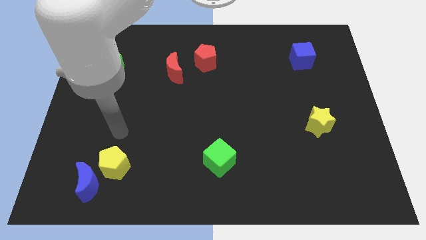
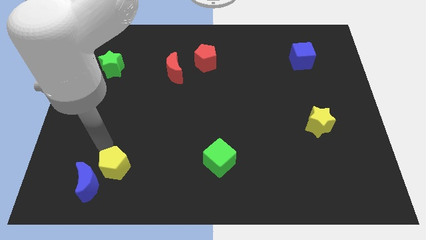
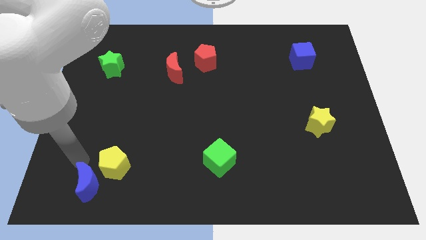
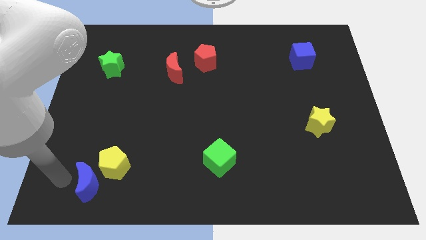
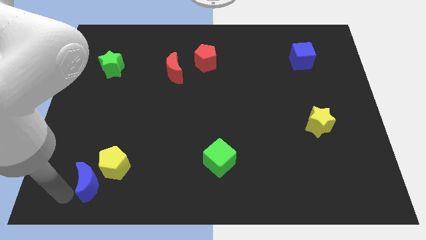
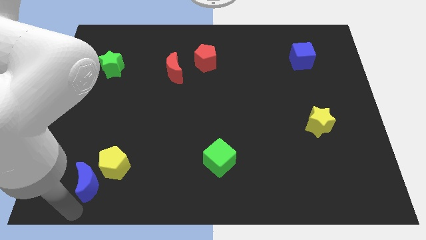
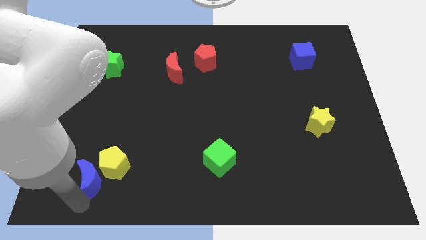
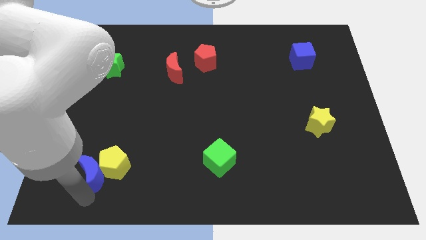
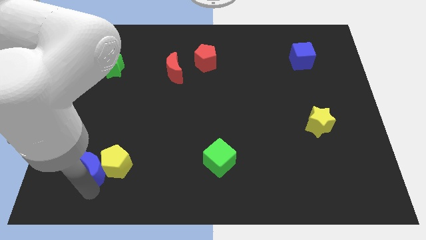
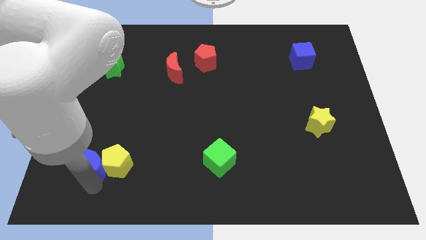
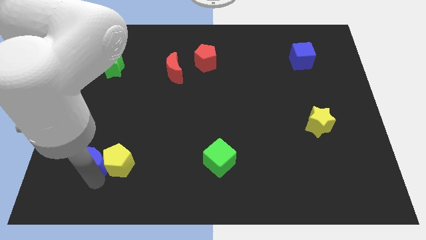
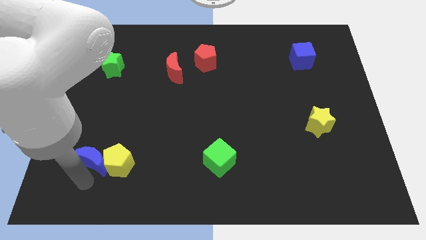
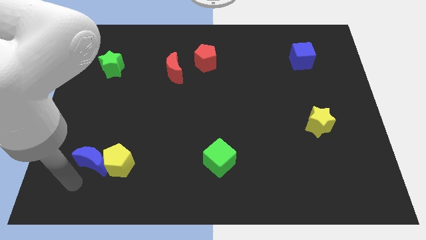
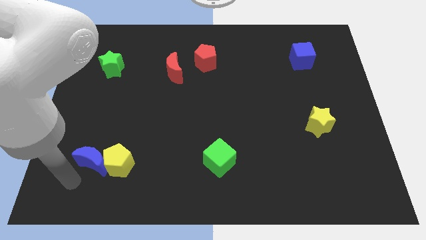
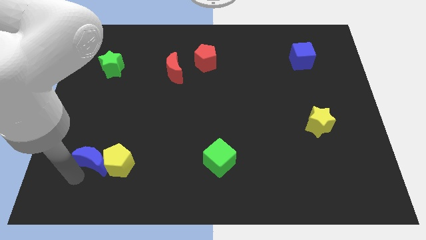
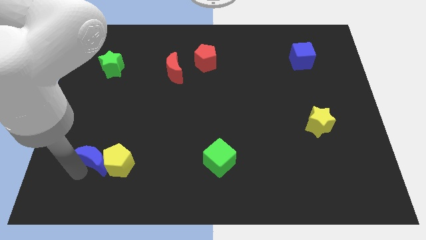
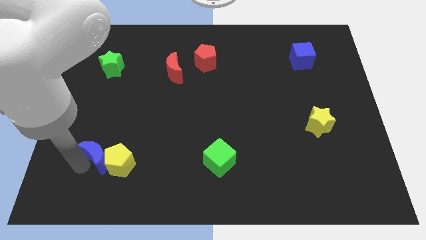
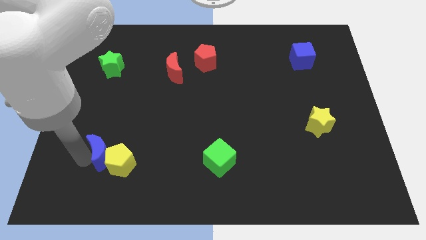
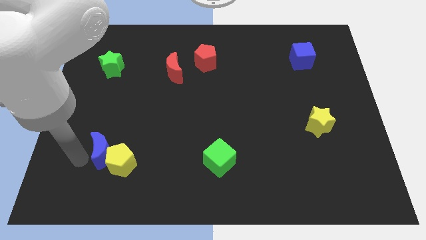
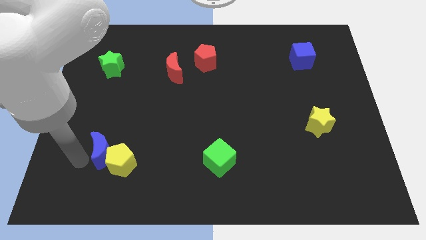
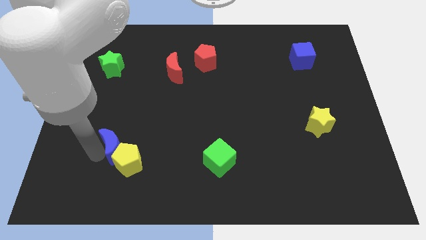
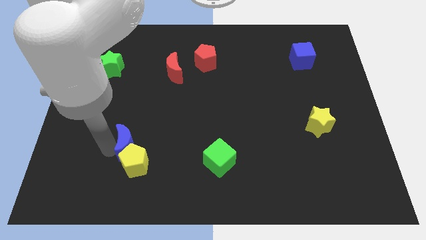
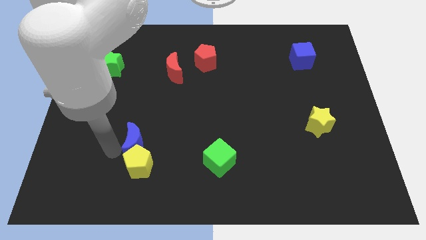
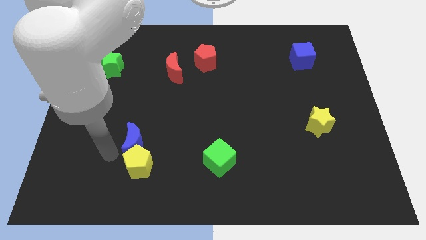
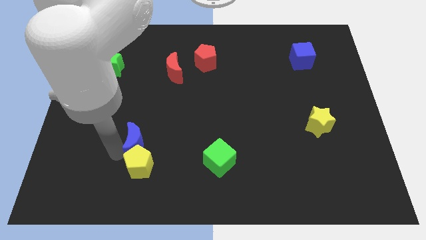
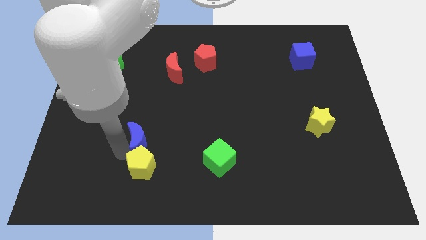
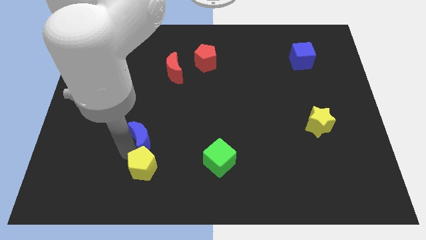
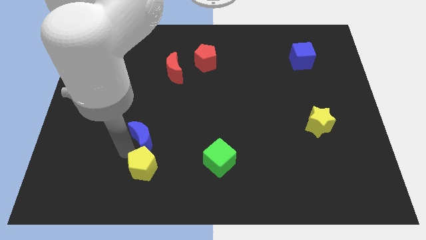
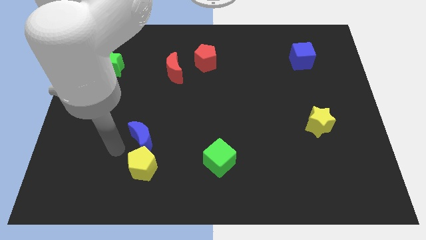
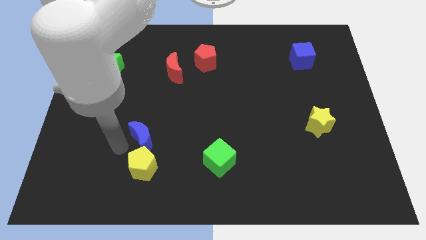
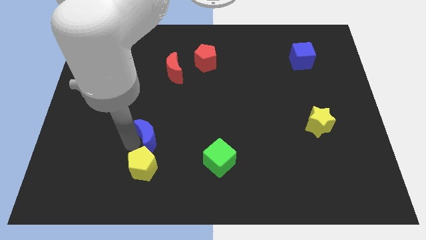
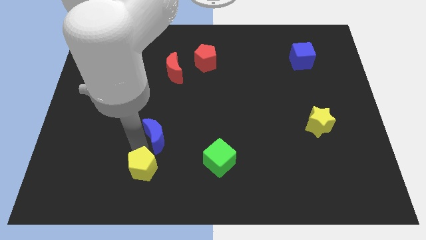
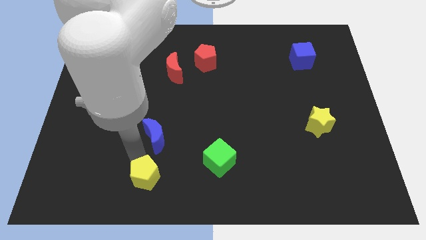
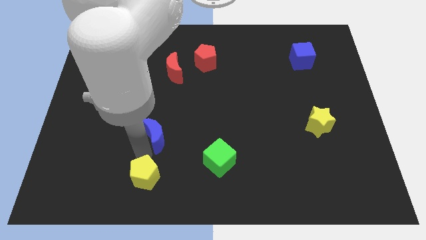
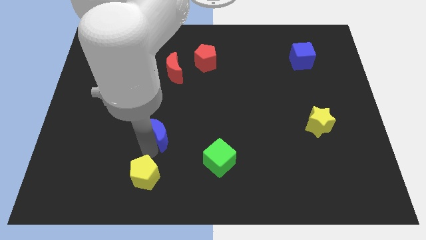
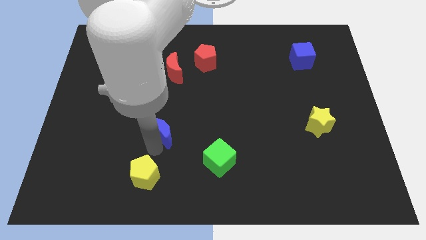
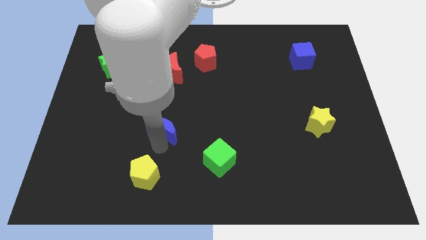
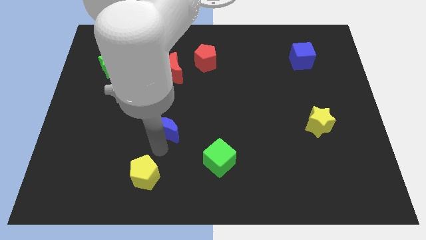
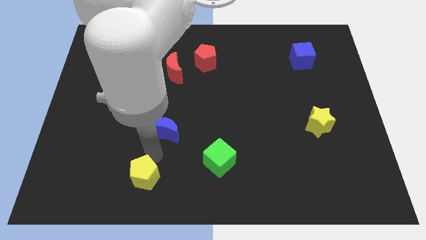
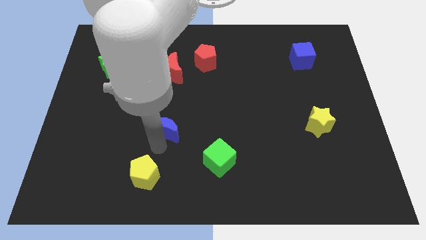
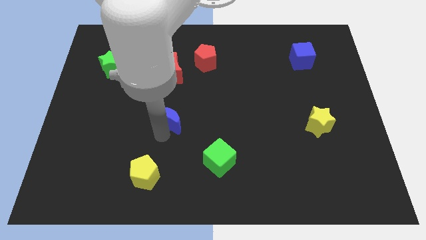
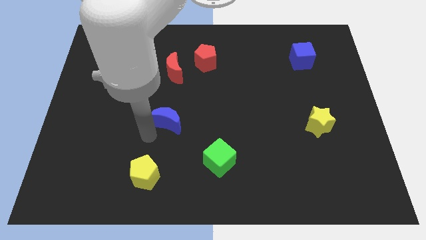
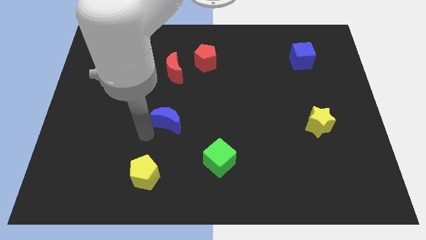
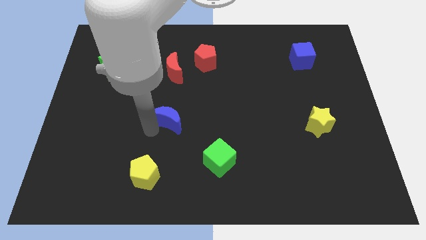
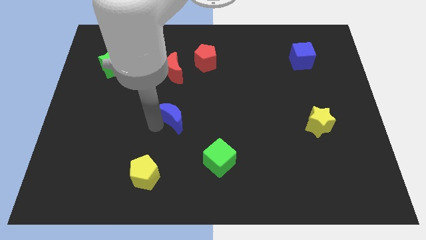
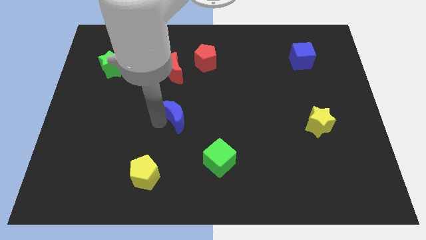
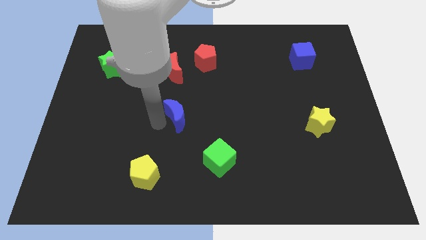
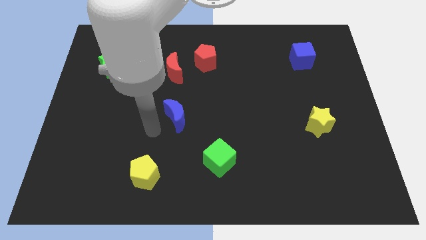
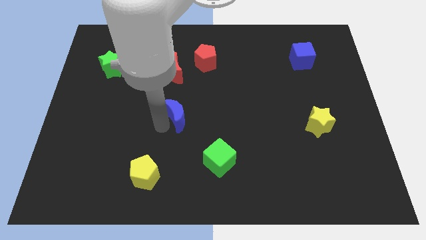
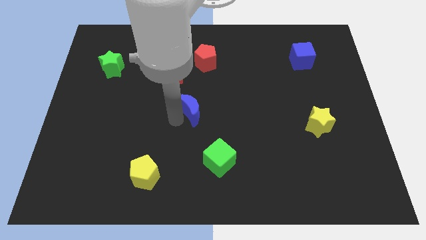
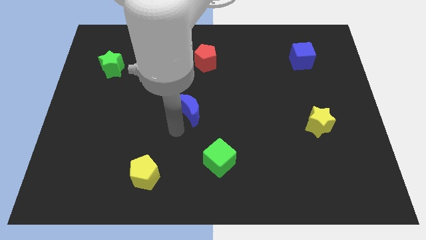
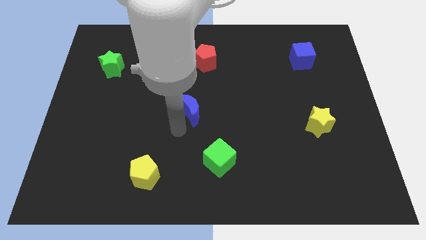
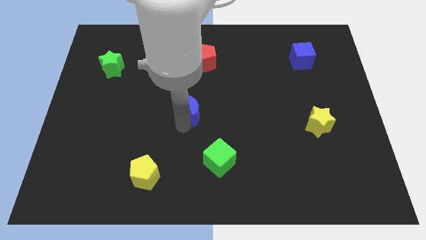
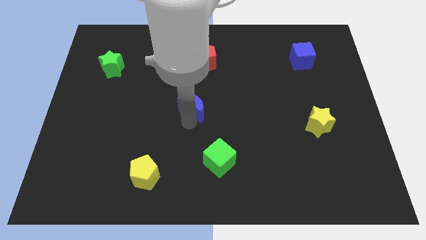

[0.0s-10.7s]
slide the blue moon to the bottom side of the red pentagon

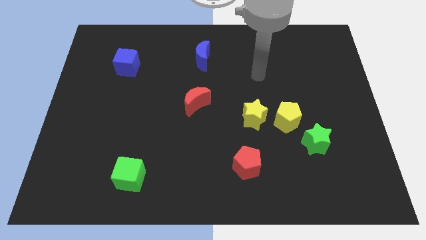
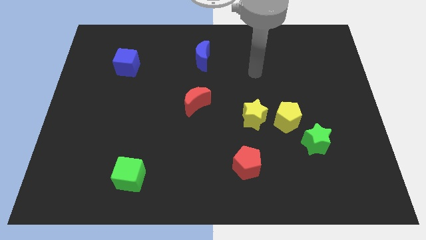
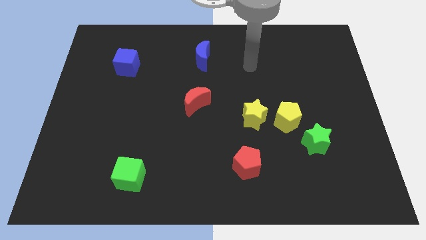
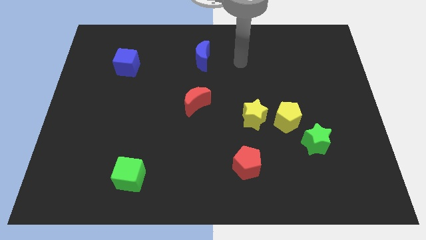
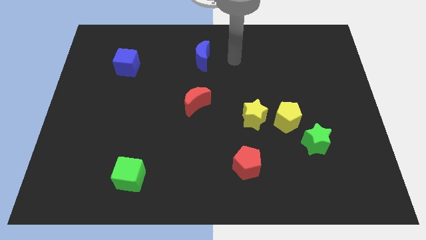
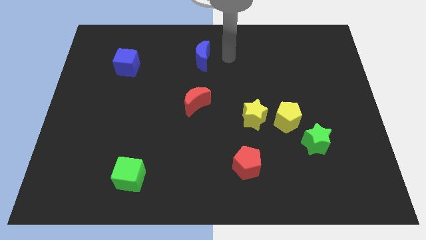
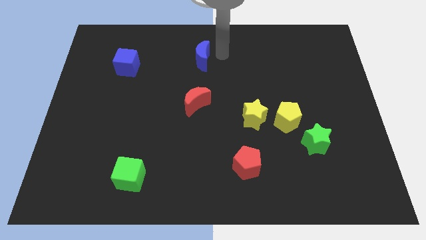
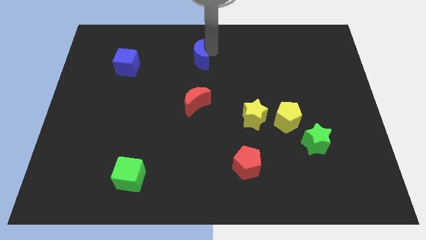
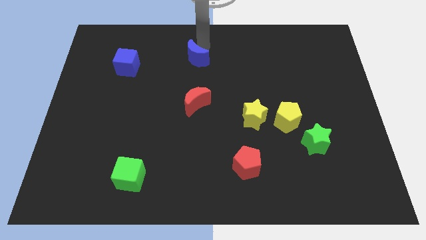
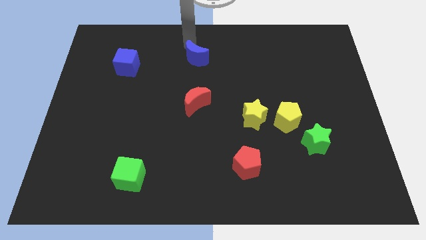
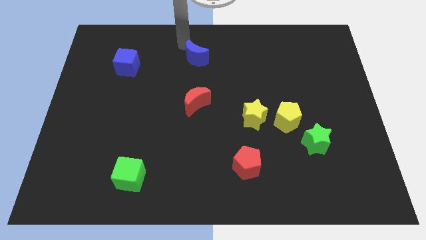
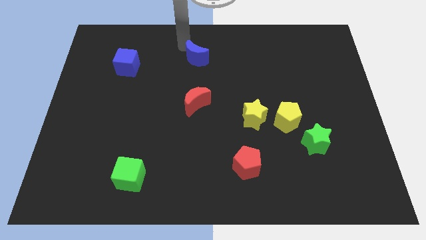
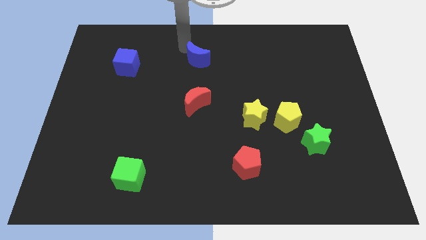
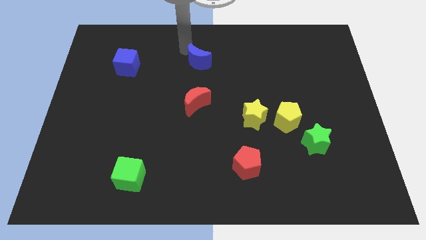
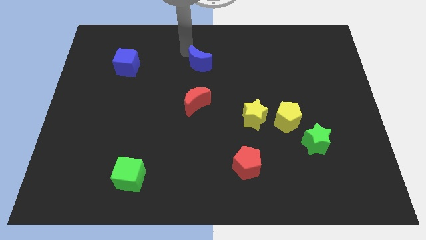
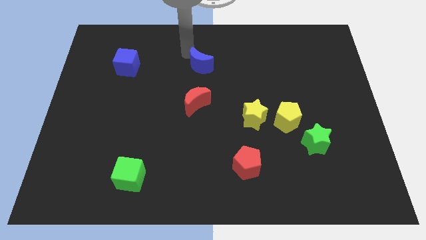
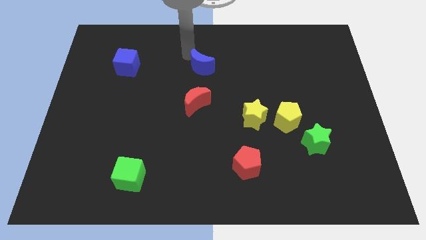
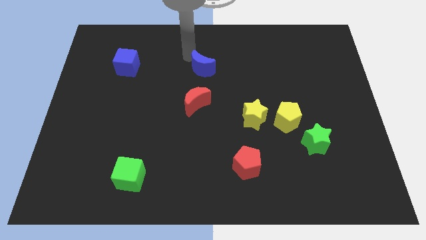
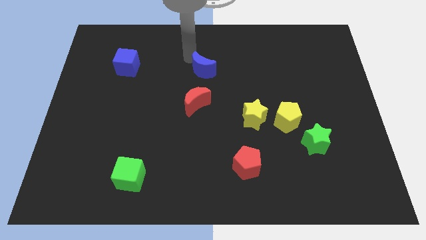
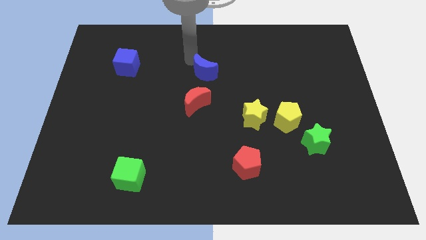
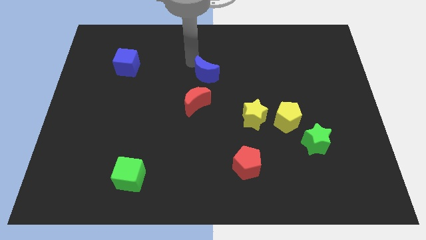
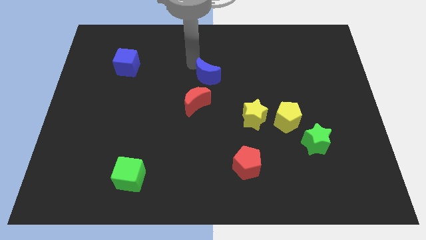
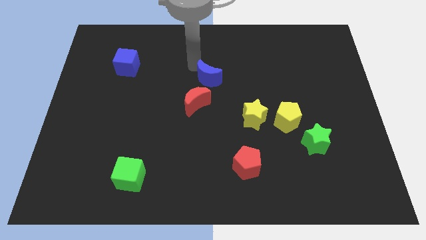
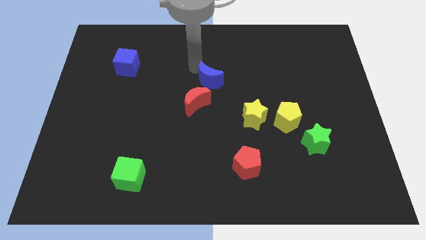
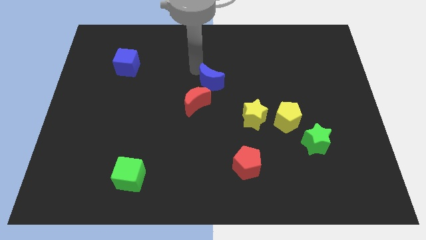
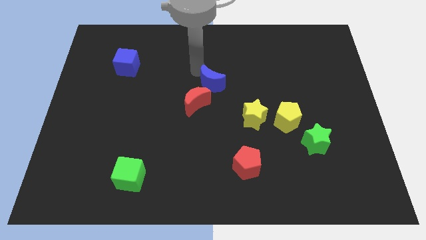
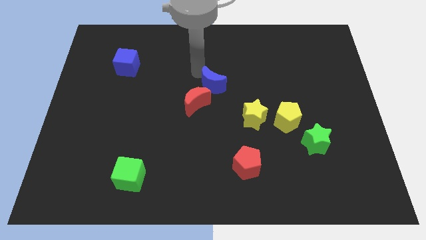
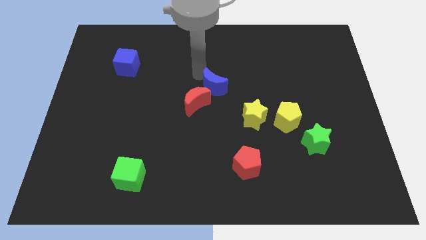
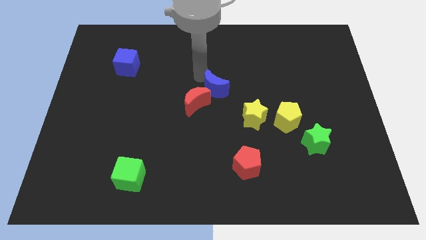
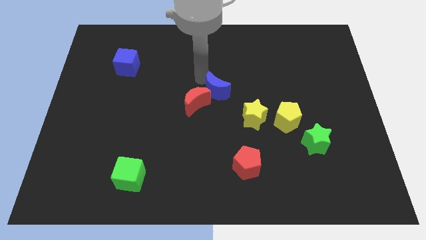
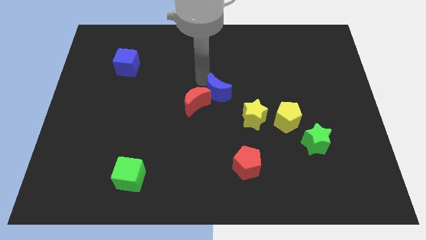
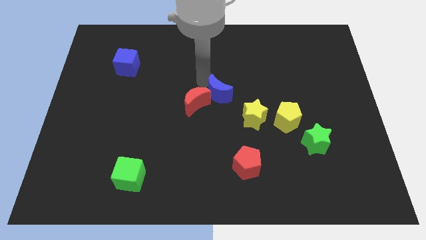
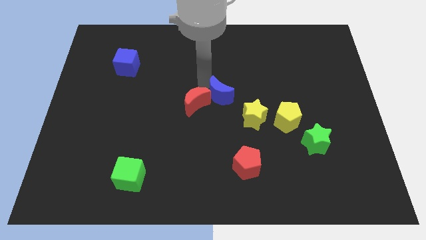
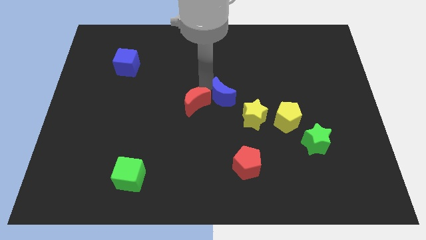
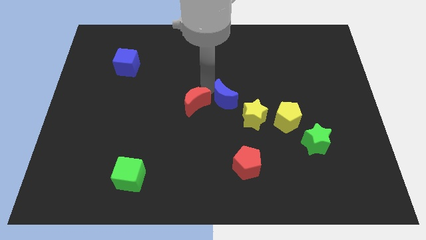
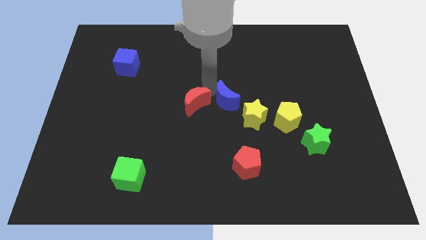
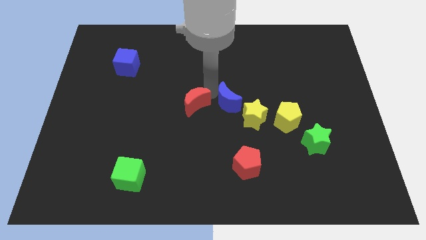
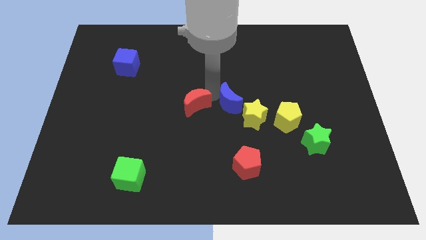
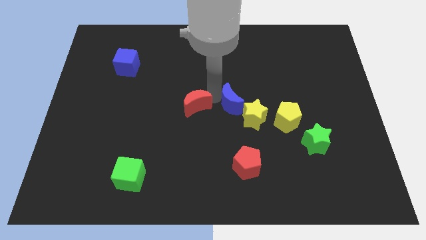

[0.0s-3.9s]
slide the blue moon left of the yellow pentagon
